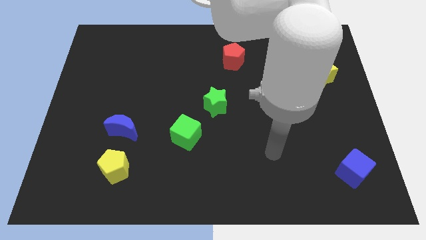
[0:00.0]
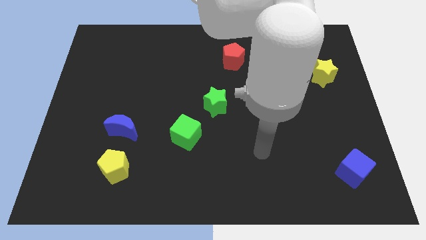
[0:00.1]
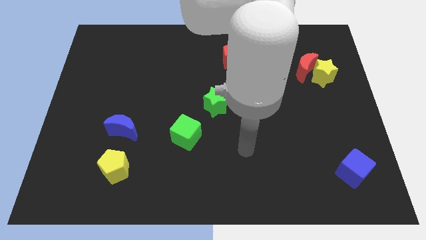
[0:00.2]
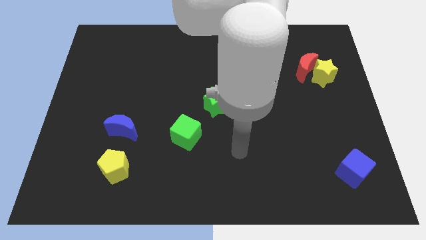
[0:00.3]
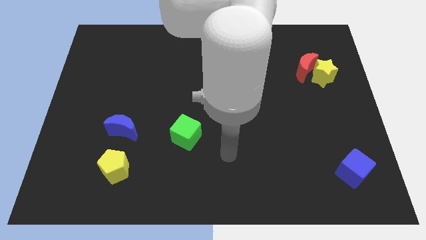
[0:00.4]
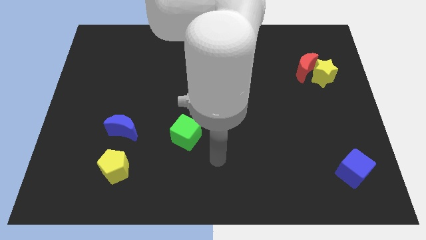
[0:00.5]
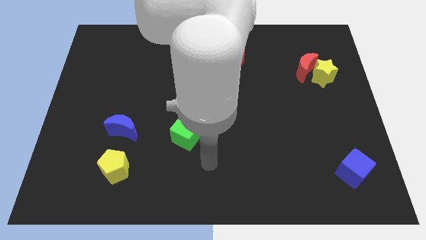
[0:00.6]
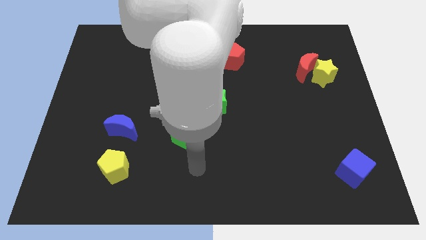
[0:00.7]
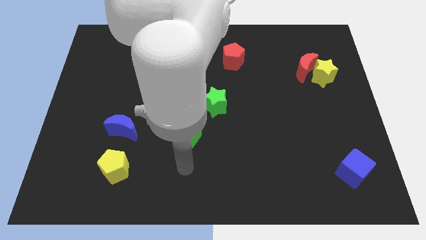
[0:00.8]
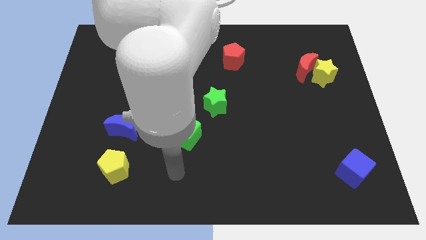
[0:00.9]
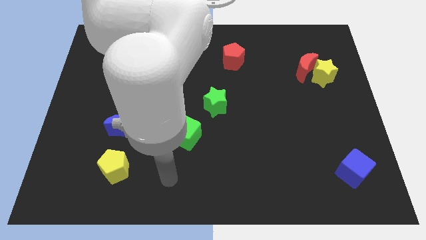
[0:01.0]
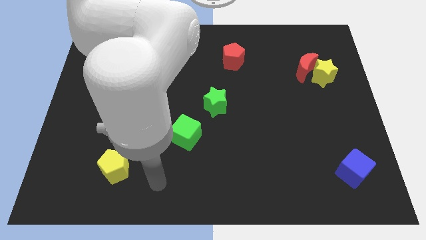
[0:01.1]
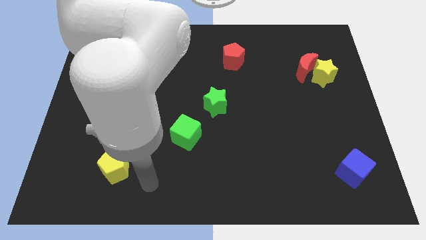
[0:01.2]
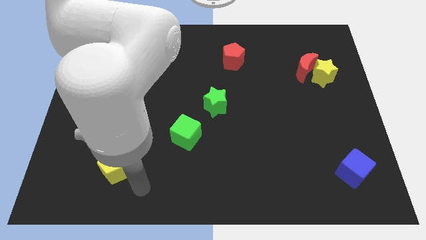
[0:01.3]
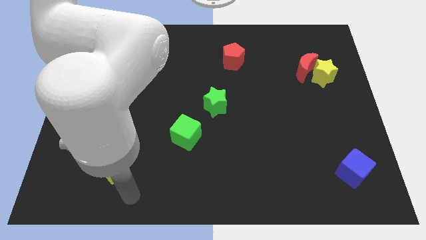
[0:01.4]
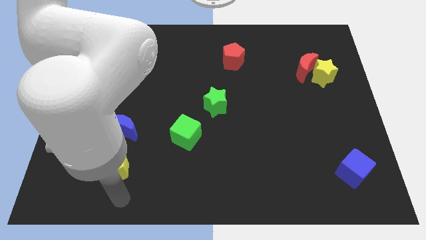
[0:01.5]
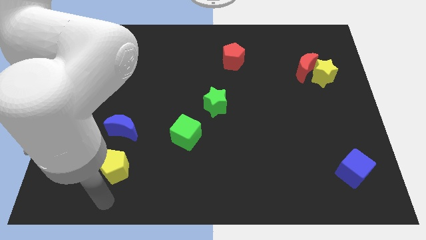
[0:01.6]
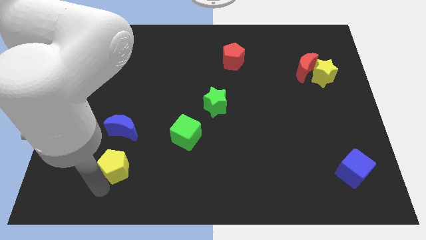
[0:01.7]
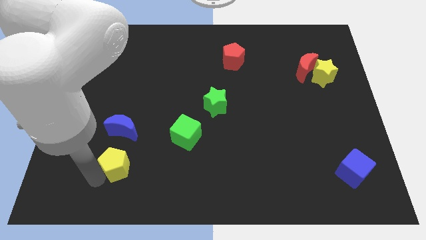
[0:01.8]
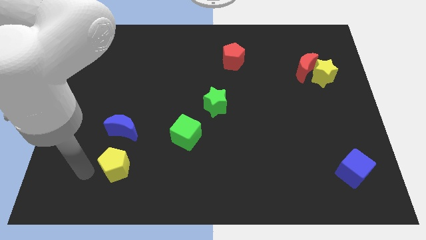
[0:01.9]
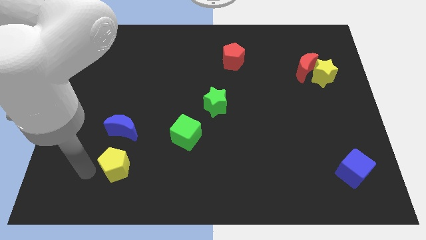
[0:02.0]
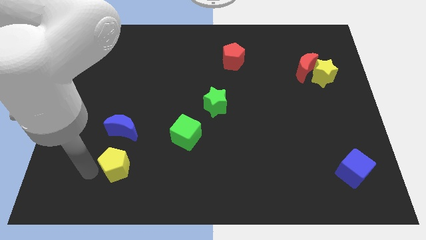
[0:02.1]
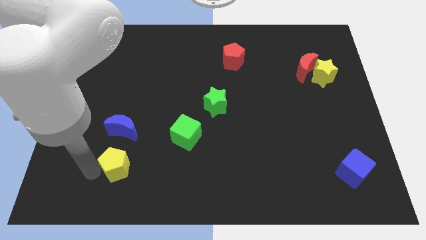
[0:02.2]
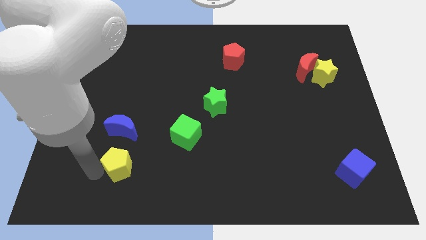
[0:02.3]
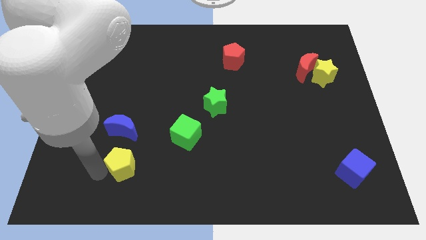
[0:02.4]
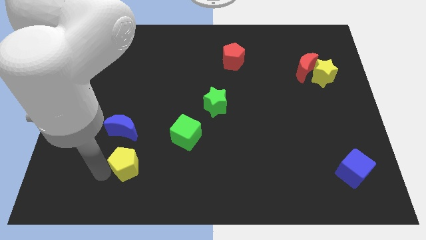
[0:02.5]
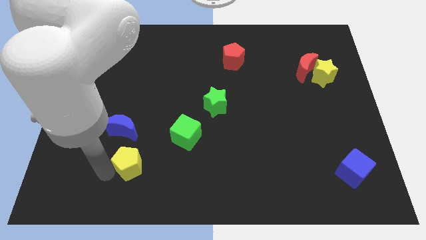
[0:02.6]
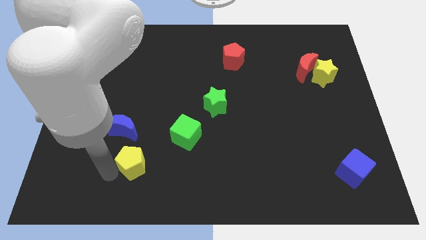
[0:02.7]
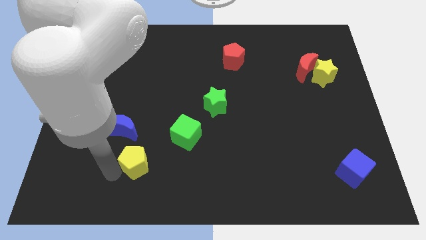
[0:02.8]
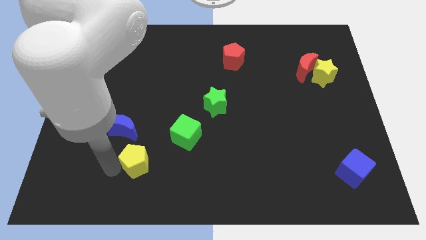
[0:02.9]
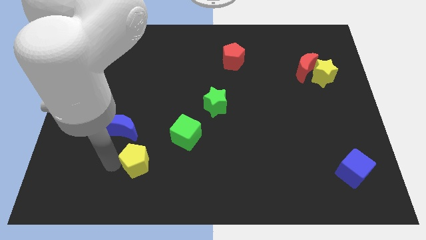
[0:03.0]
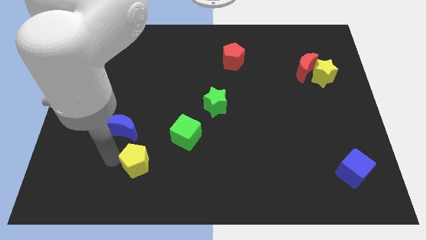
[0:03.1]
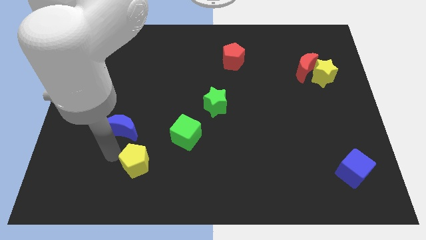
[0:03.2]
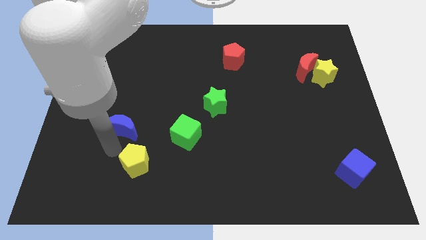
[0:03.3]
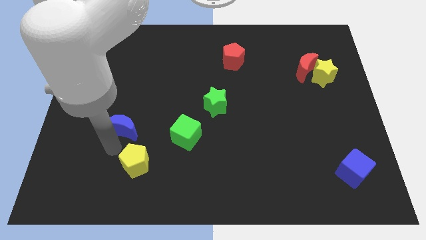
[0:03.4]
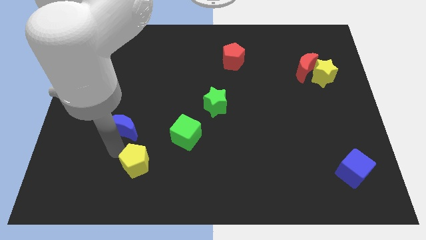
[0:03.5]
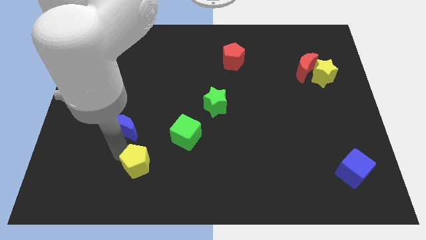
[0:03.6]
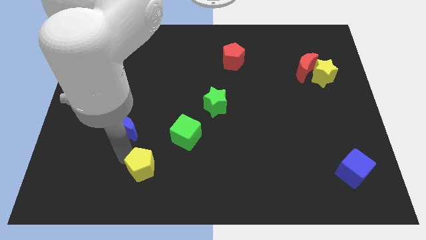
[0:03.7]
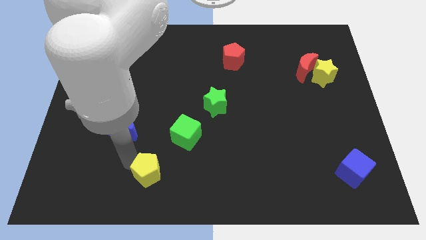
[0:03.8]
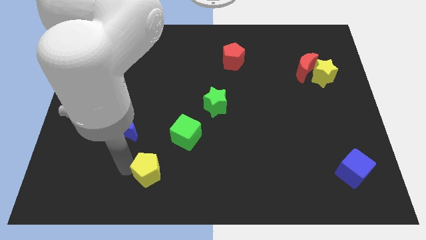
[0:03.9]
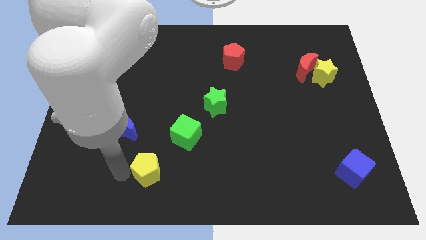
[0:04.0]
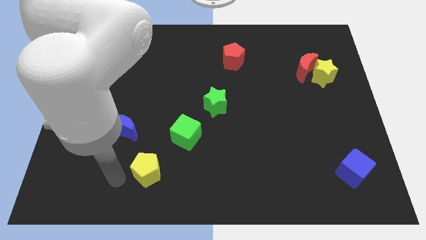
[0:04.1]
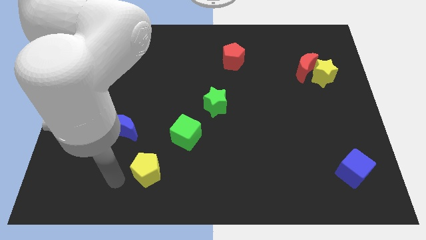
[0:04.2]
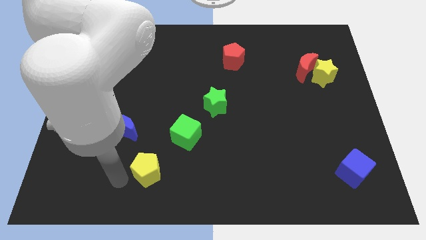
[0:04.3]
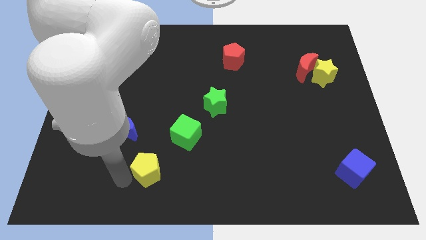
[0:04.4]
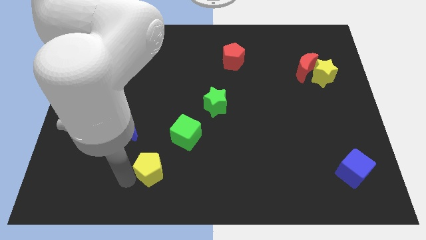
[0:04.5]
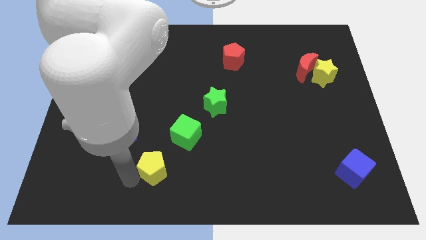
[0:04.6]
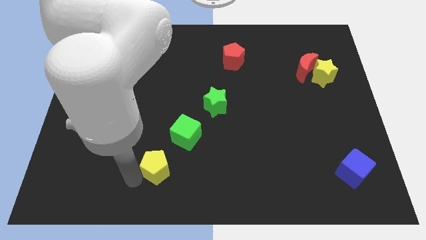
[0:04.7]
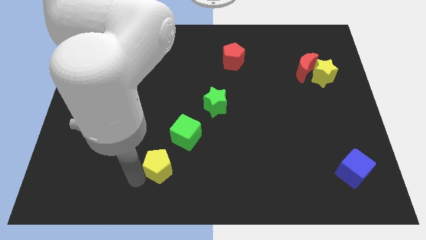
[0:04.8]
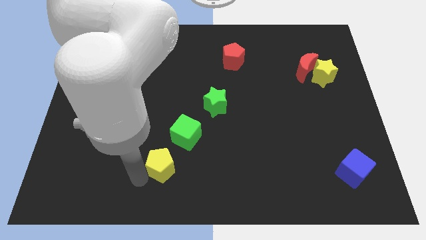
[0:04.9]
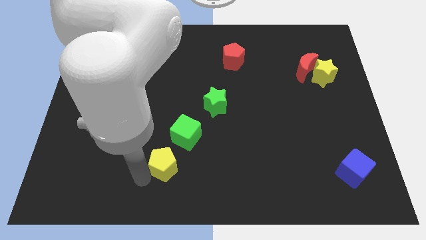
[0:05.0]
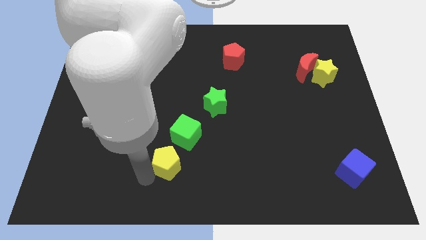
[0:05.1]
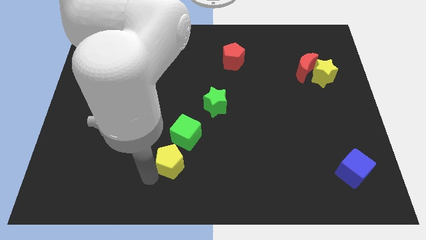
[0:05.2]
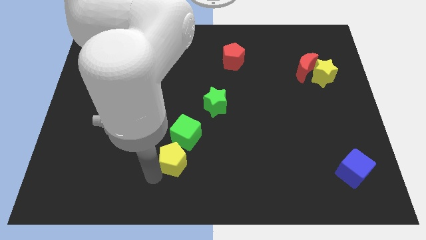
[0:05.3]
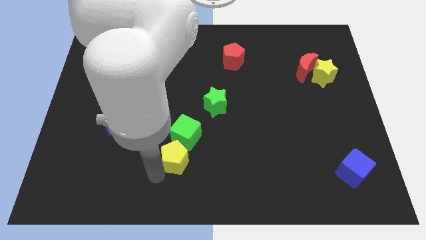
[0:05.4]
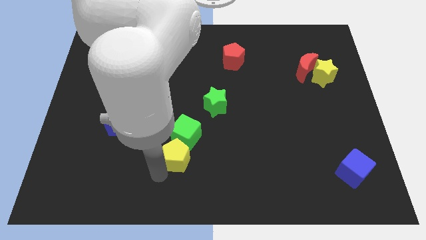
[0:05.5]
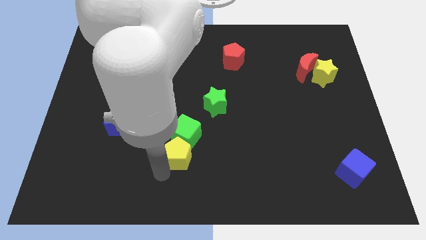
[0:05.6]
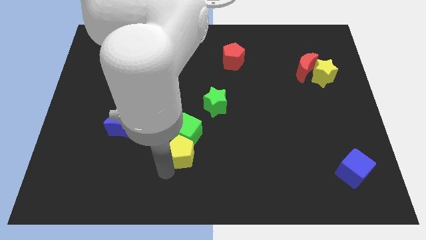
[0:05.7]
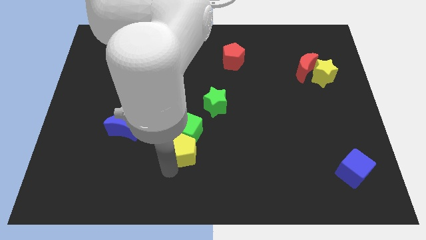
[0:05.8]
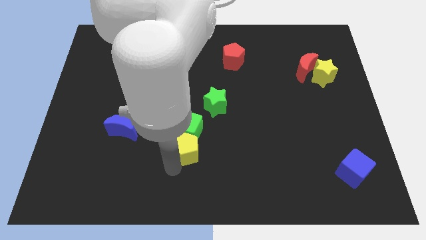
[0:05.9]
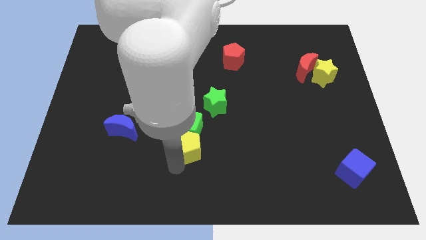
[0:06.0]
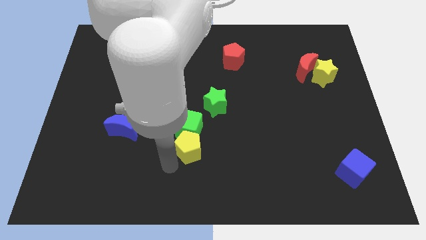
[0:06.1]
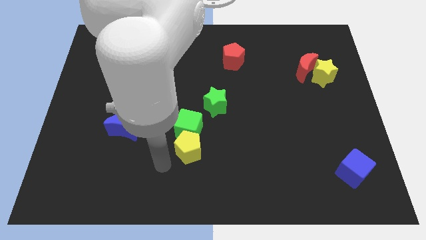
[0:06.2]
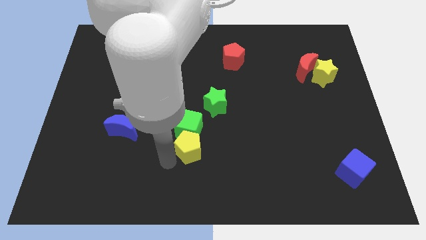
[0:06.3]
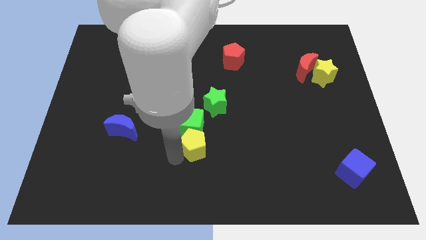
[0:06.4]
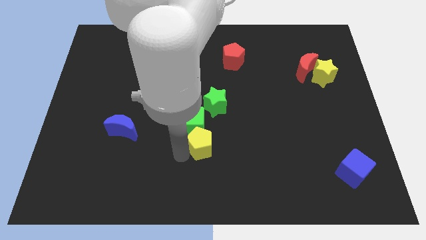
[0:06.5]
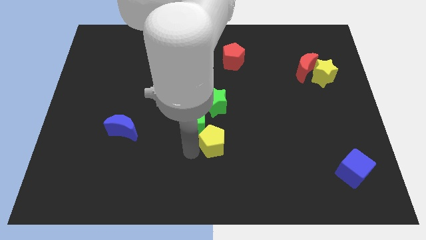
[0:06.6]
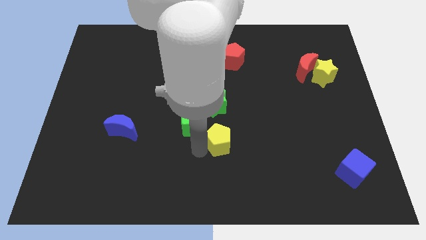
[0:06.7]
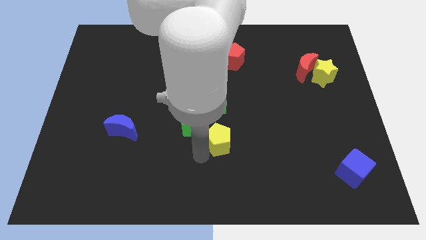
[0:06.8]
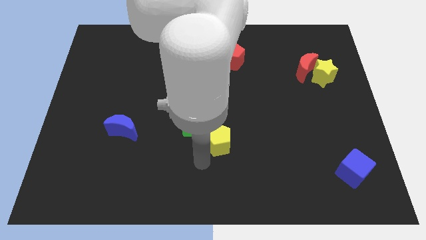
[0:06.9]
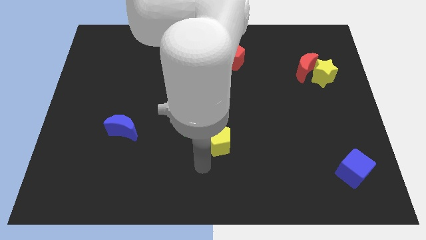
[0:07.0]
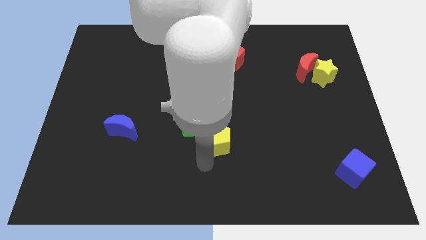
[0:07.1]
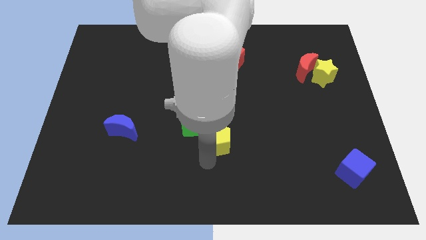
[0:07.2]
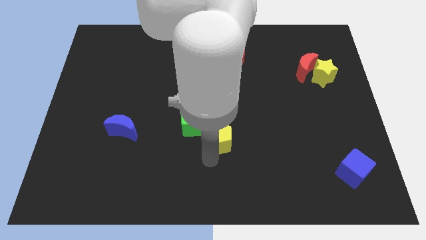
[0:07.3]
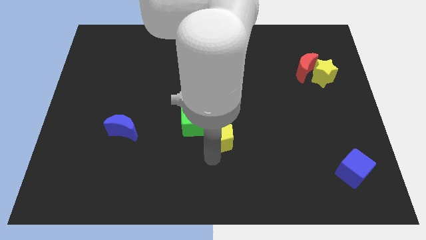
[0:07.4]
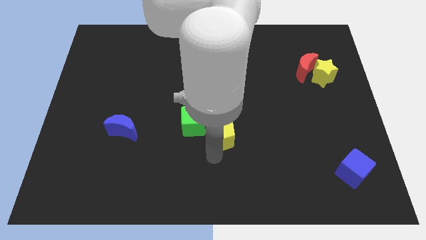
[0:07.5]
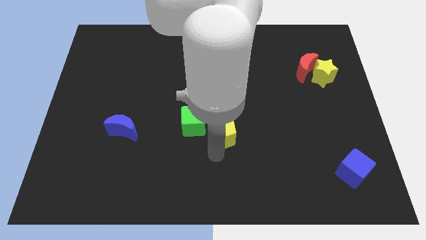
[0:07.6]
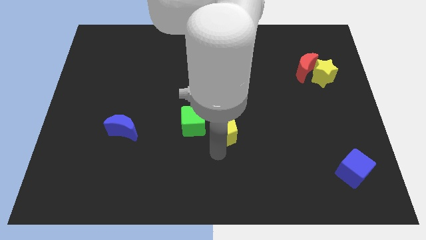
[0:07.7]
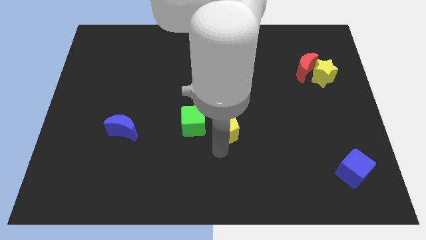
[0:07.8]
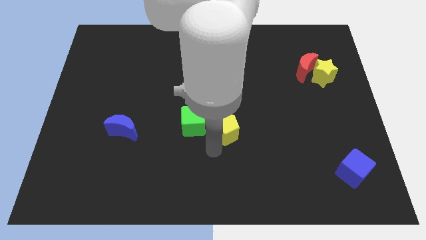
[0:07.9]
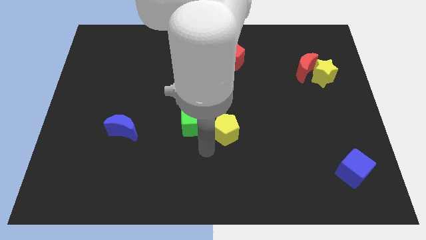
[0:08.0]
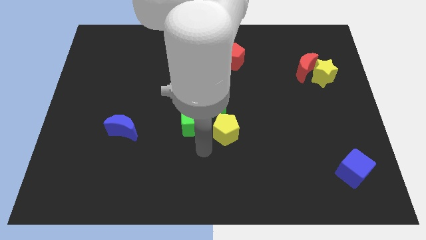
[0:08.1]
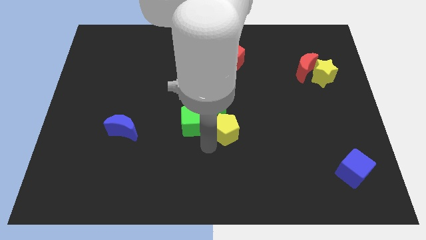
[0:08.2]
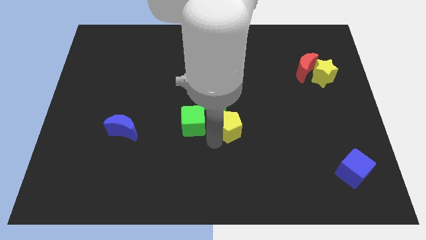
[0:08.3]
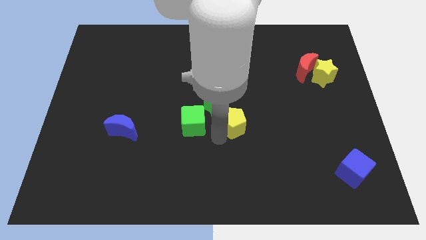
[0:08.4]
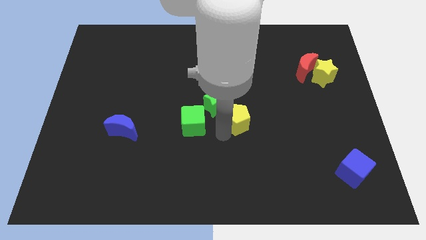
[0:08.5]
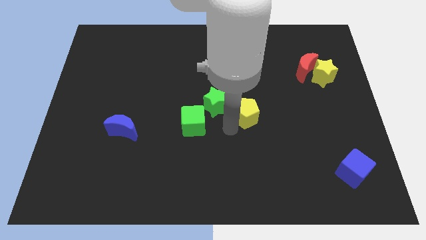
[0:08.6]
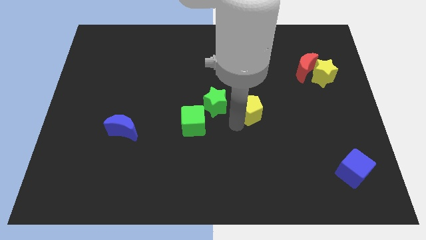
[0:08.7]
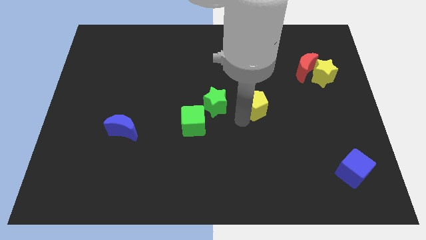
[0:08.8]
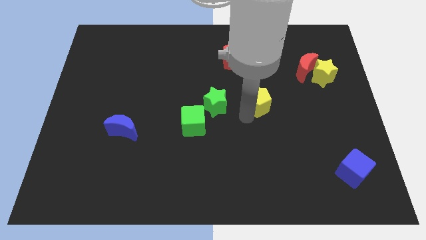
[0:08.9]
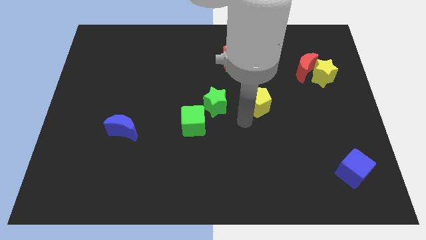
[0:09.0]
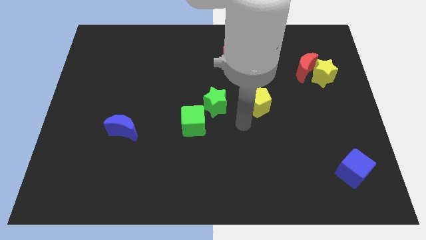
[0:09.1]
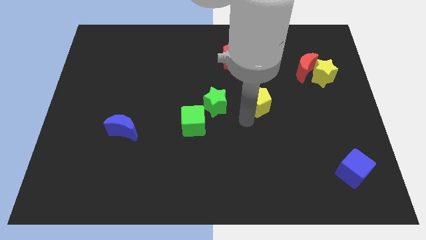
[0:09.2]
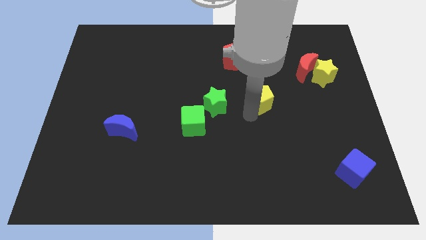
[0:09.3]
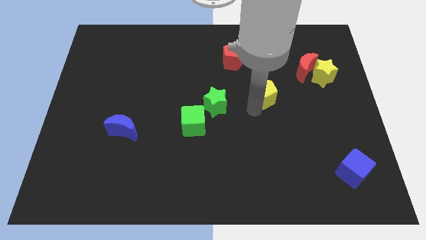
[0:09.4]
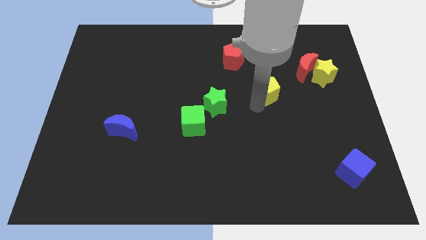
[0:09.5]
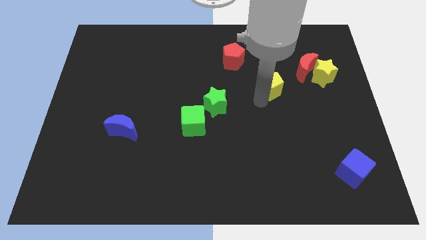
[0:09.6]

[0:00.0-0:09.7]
push the yellow pentagon just left of the yellow star
